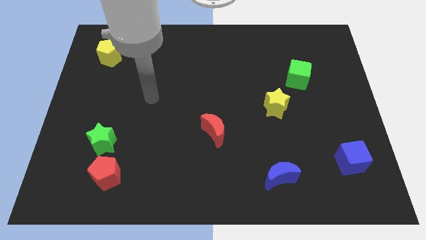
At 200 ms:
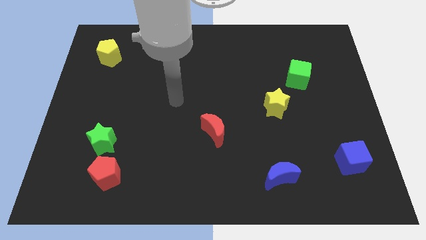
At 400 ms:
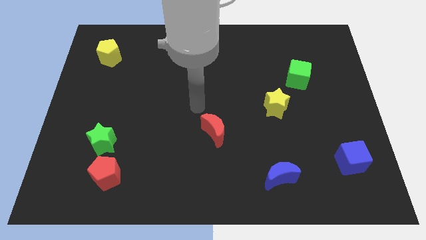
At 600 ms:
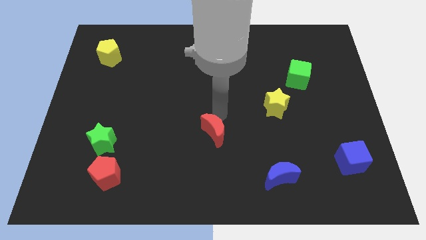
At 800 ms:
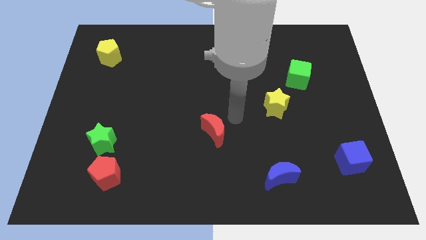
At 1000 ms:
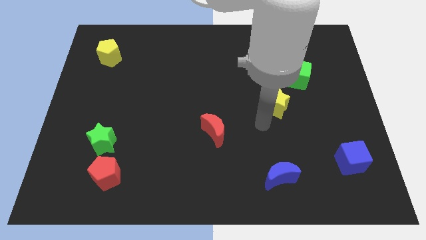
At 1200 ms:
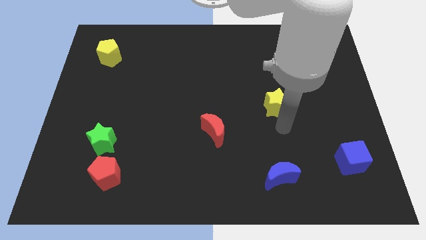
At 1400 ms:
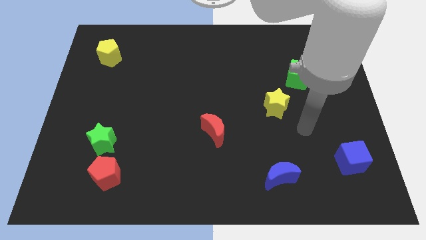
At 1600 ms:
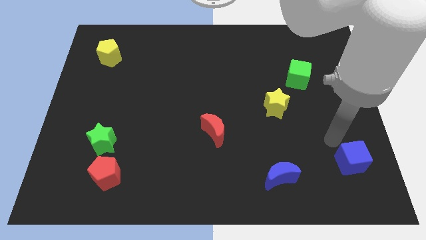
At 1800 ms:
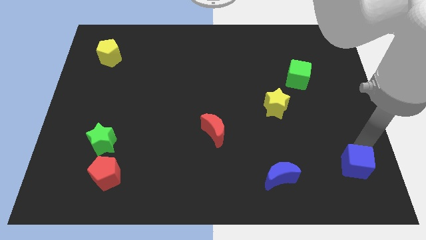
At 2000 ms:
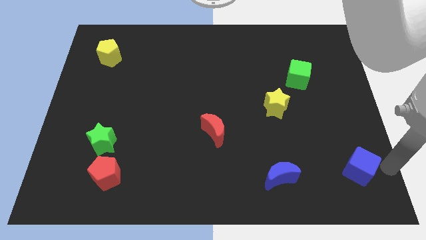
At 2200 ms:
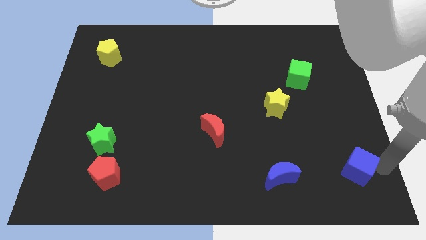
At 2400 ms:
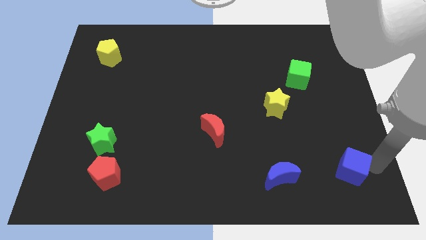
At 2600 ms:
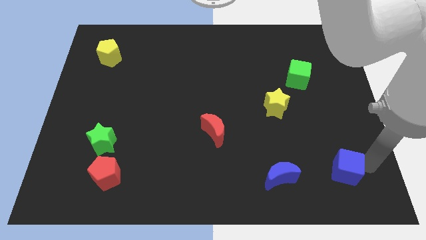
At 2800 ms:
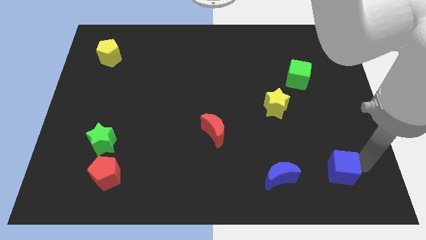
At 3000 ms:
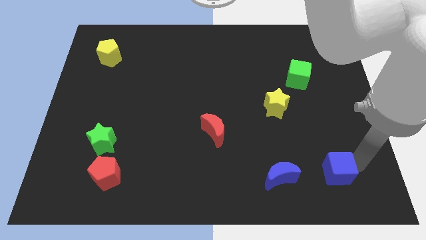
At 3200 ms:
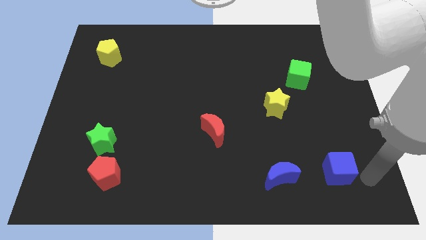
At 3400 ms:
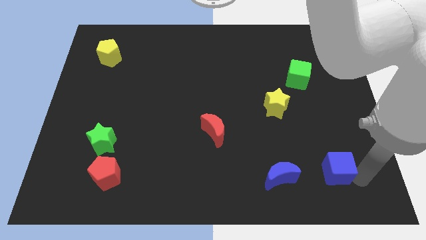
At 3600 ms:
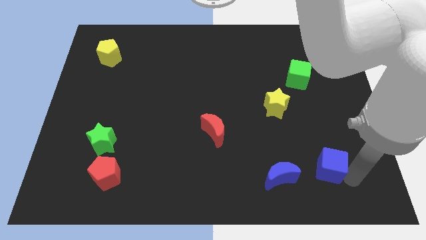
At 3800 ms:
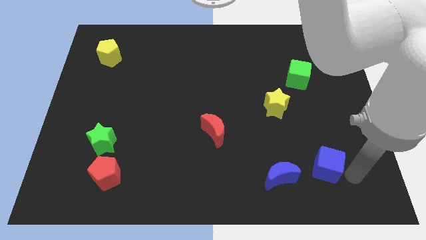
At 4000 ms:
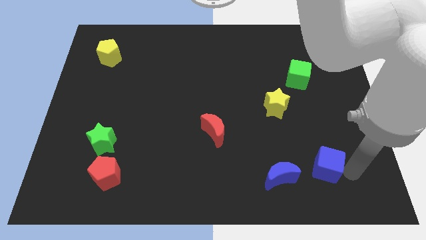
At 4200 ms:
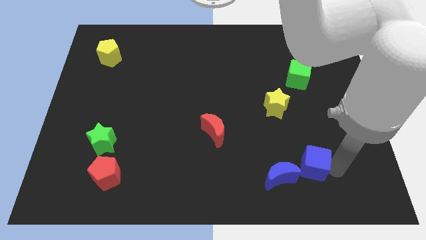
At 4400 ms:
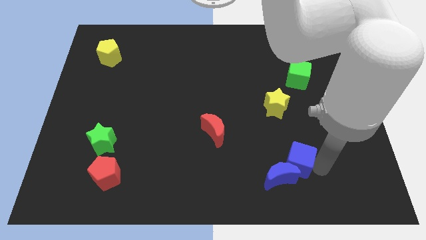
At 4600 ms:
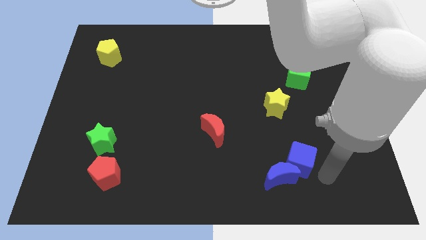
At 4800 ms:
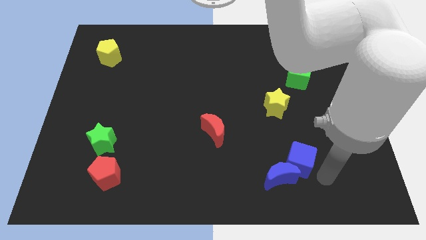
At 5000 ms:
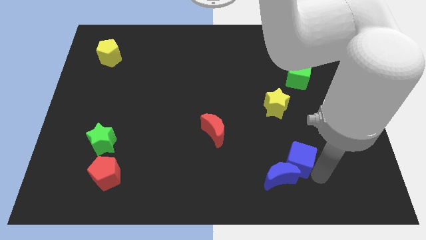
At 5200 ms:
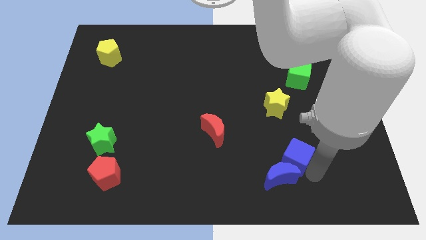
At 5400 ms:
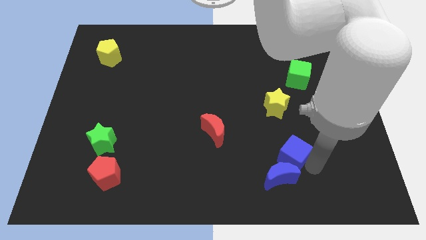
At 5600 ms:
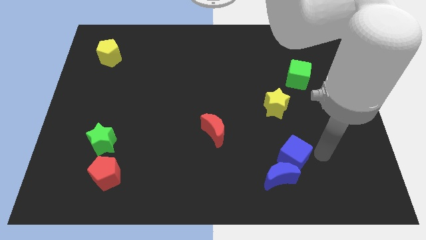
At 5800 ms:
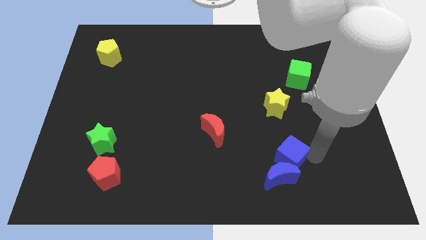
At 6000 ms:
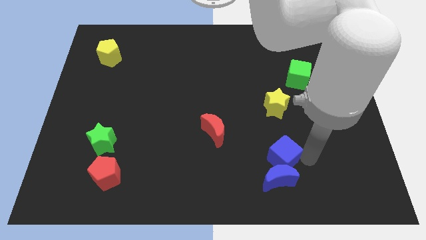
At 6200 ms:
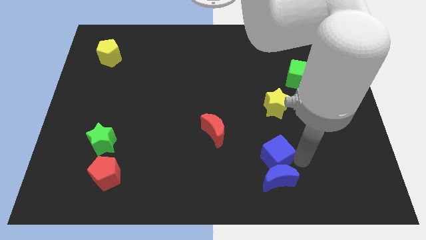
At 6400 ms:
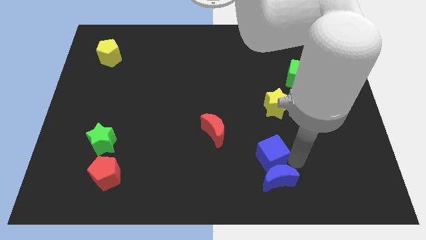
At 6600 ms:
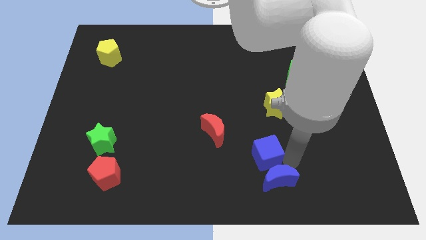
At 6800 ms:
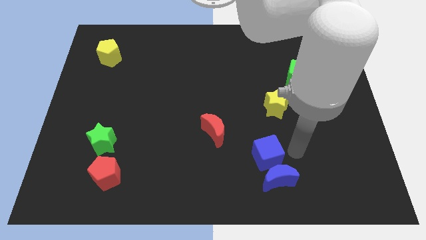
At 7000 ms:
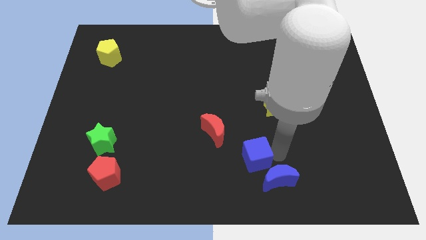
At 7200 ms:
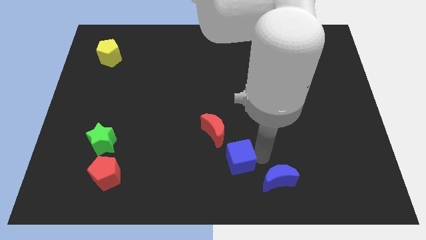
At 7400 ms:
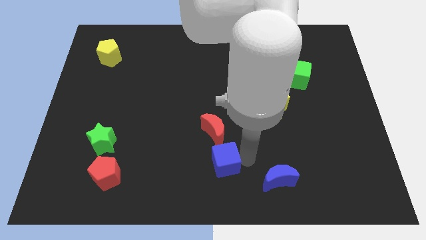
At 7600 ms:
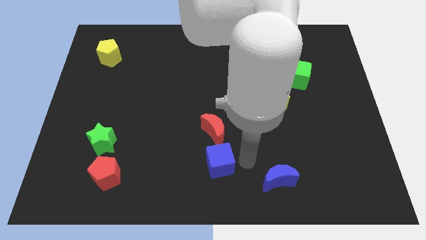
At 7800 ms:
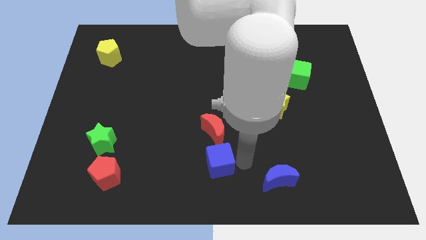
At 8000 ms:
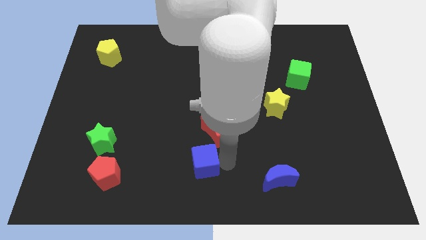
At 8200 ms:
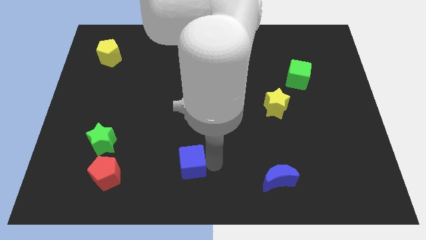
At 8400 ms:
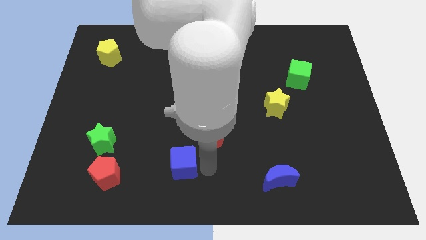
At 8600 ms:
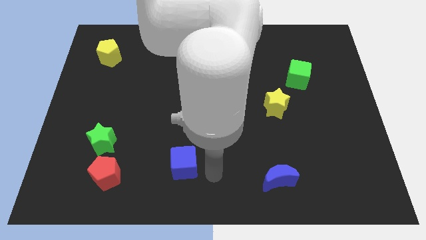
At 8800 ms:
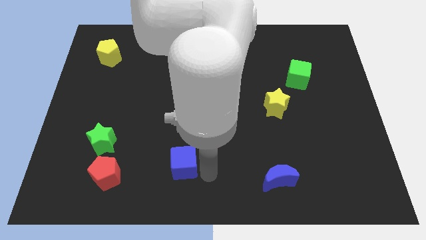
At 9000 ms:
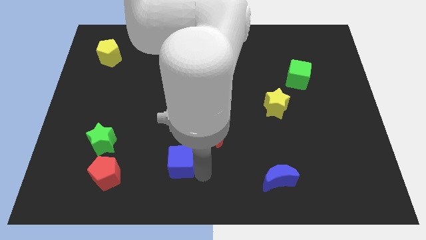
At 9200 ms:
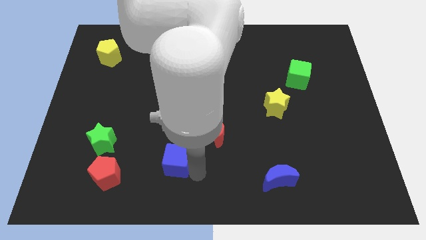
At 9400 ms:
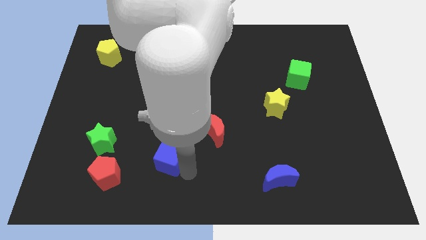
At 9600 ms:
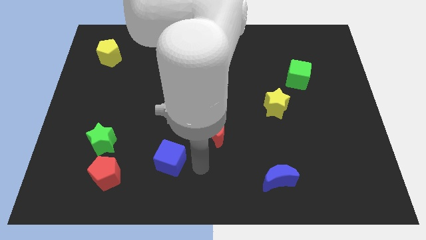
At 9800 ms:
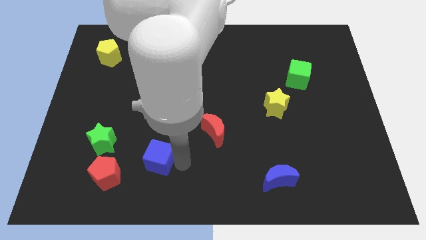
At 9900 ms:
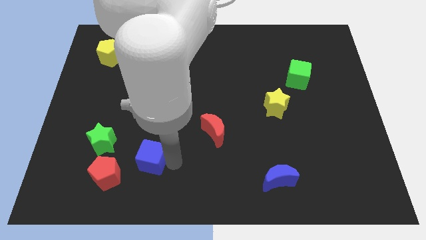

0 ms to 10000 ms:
slide the blue cube to the top right side of the red pentagon

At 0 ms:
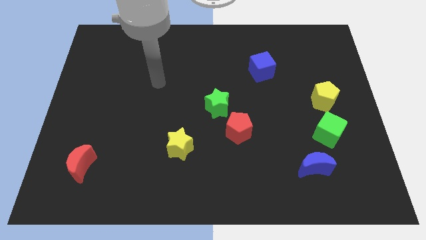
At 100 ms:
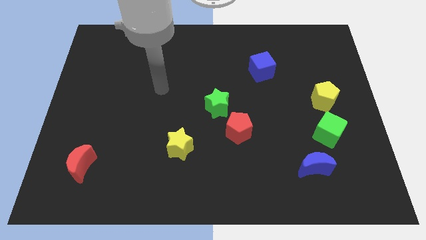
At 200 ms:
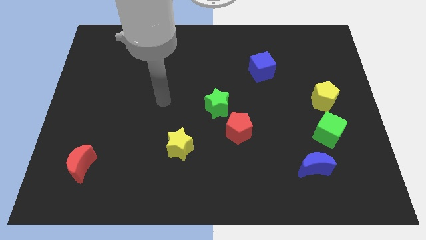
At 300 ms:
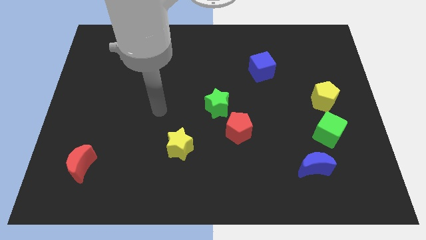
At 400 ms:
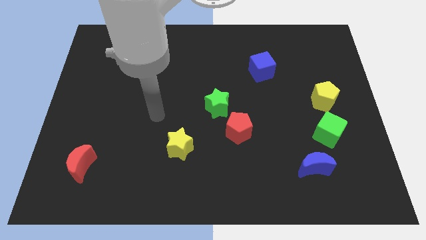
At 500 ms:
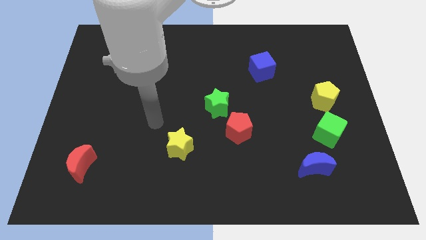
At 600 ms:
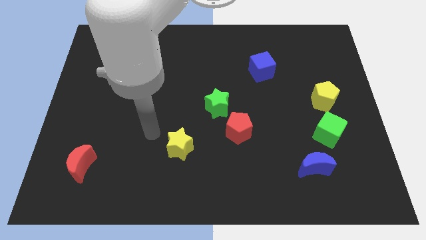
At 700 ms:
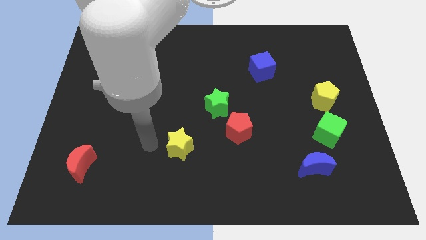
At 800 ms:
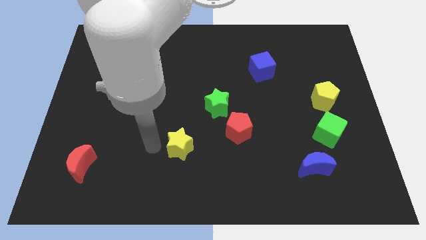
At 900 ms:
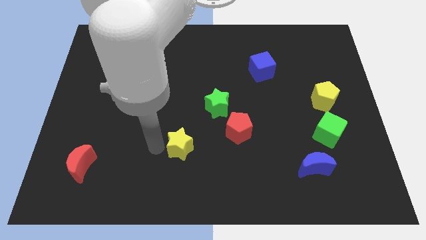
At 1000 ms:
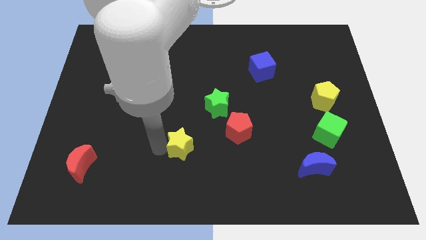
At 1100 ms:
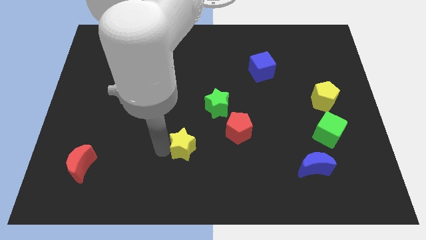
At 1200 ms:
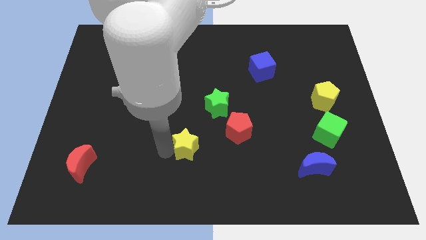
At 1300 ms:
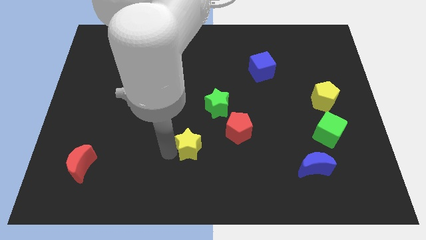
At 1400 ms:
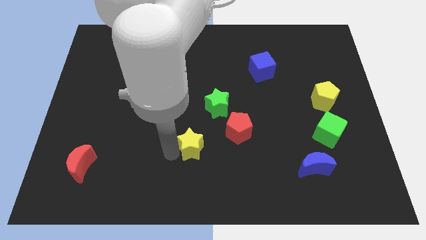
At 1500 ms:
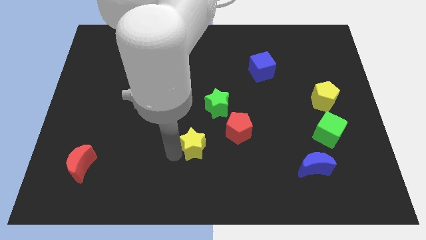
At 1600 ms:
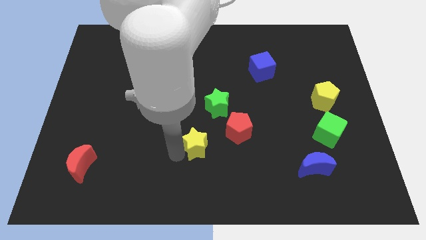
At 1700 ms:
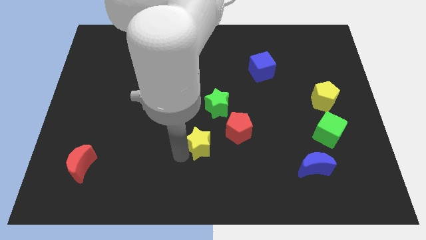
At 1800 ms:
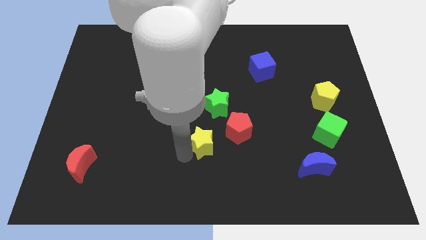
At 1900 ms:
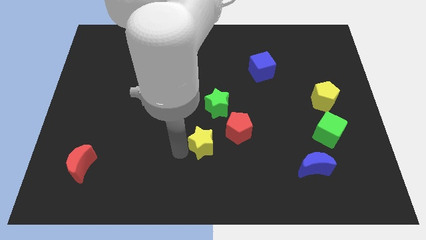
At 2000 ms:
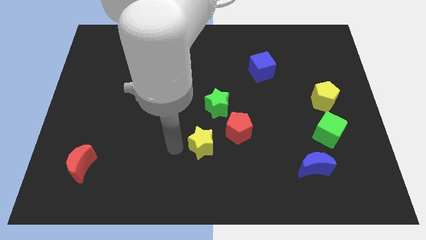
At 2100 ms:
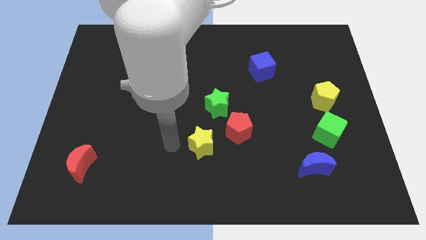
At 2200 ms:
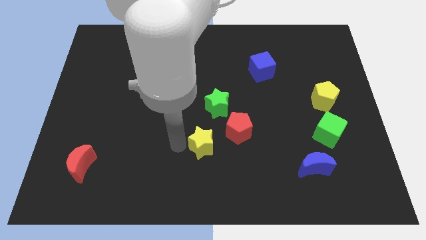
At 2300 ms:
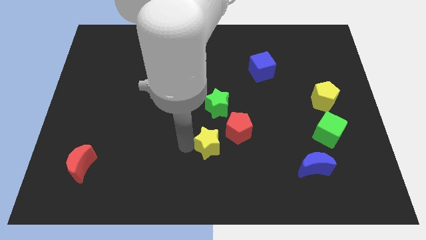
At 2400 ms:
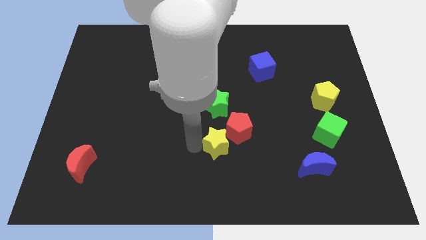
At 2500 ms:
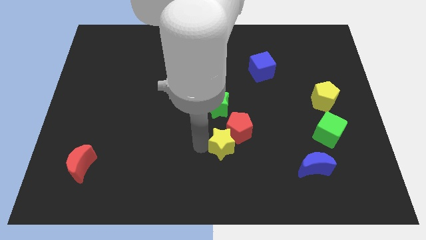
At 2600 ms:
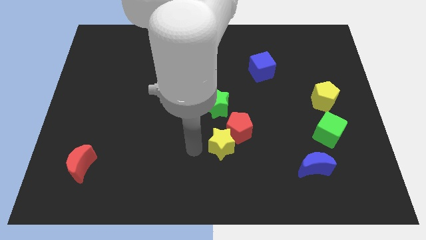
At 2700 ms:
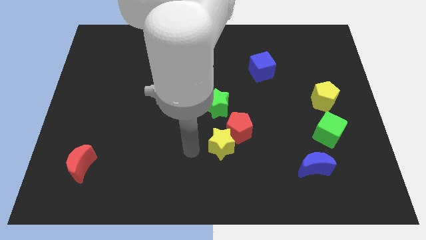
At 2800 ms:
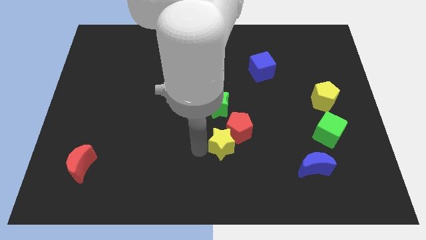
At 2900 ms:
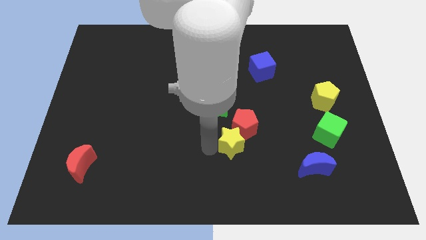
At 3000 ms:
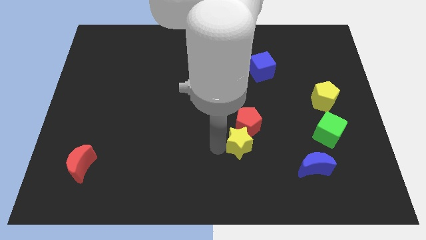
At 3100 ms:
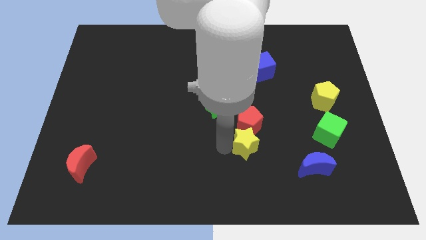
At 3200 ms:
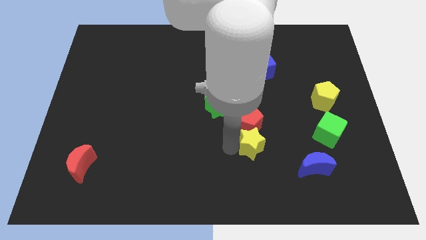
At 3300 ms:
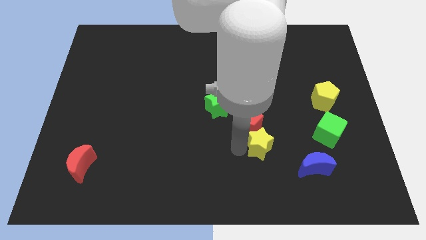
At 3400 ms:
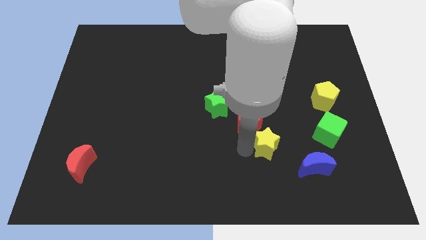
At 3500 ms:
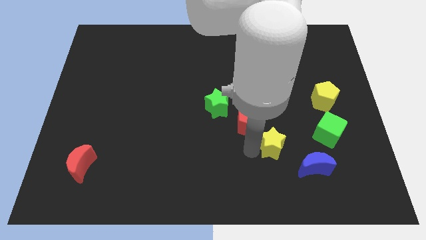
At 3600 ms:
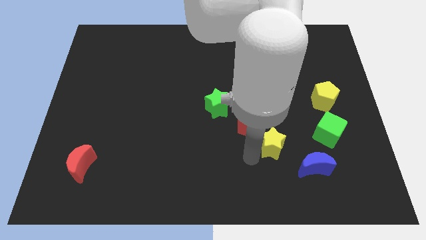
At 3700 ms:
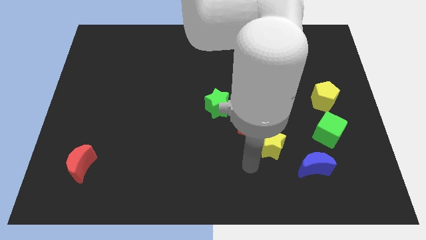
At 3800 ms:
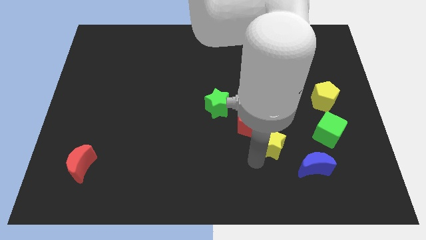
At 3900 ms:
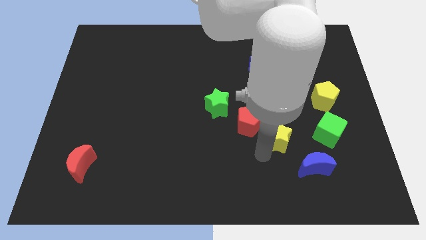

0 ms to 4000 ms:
move the yellow star to the right of the red pentagon
